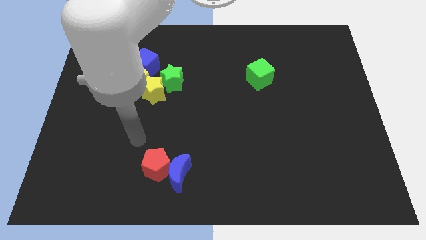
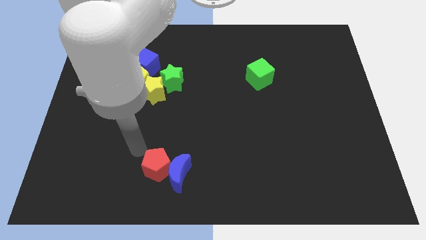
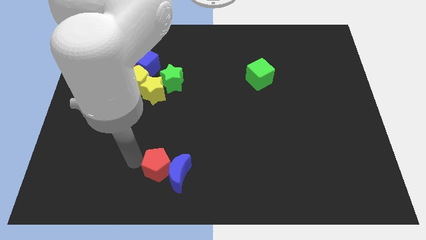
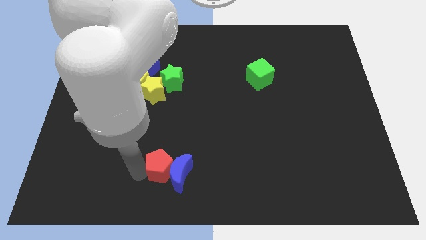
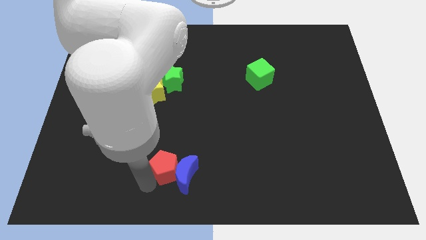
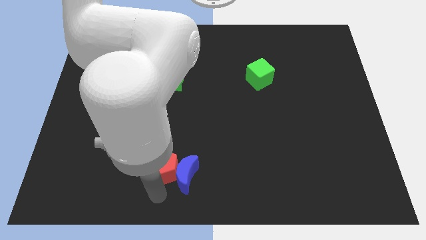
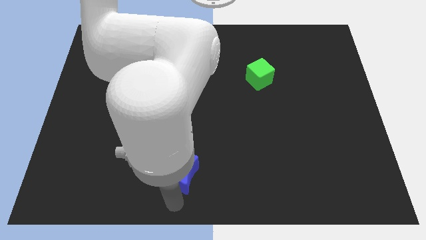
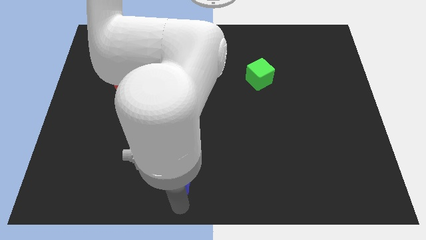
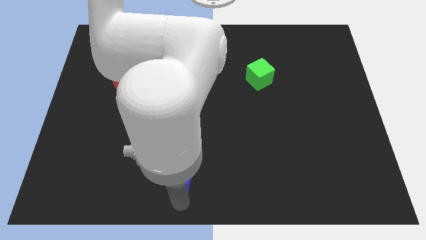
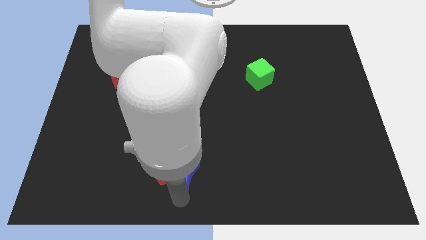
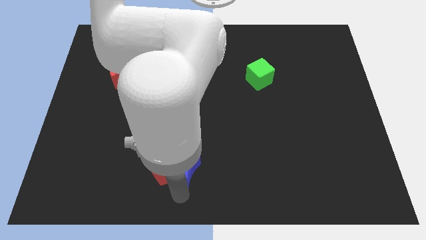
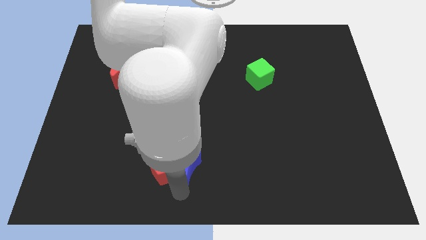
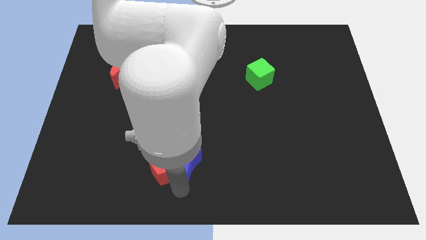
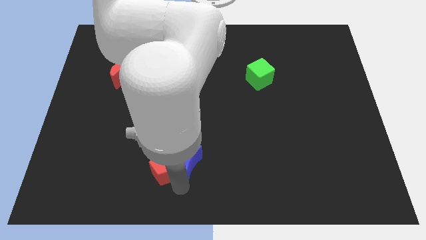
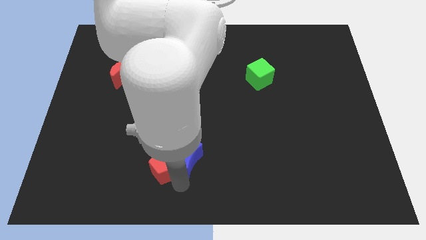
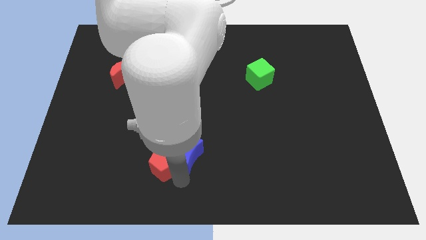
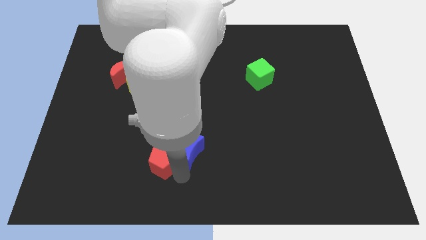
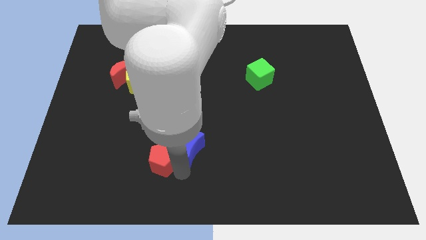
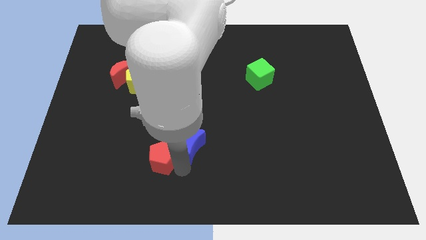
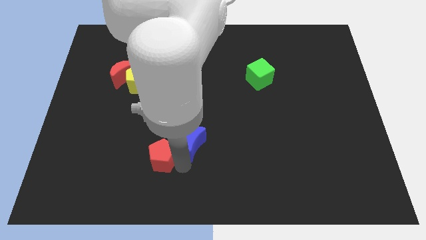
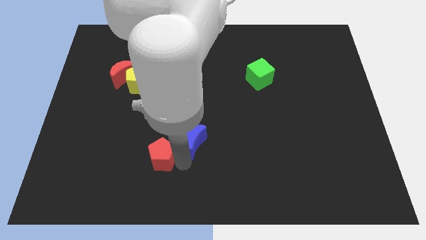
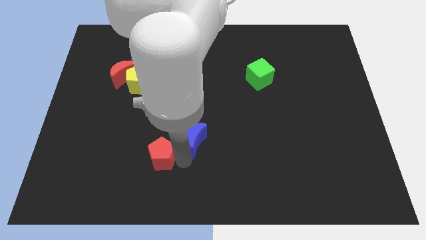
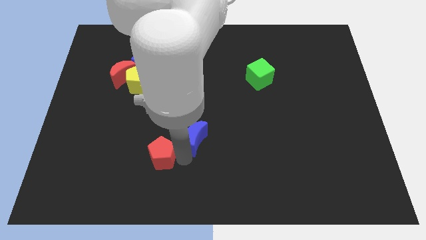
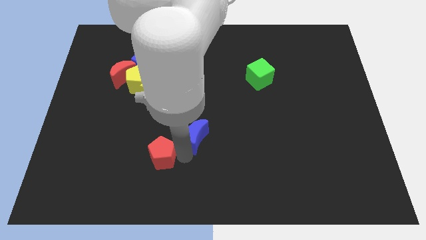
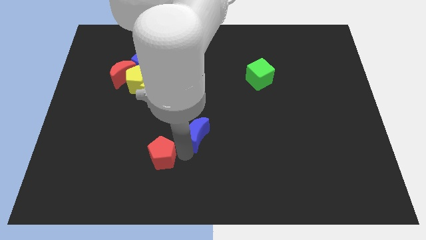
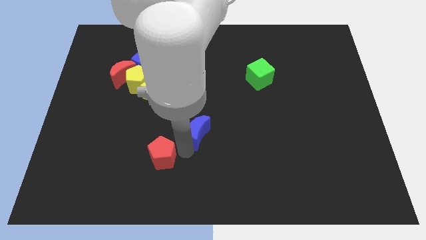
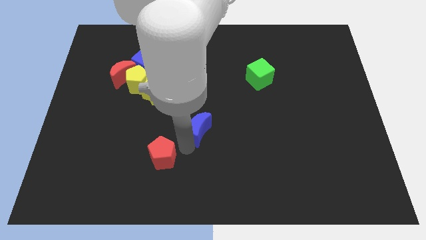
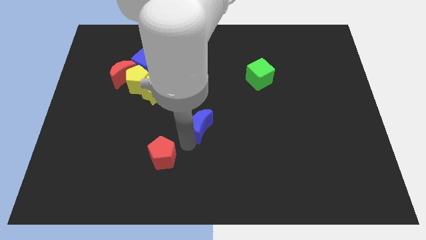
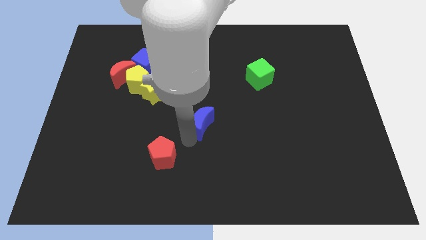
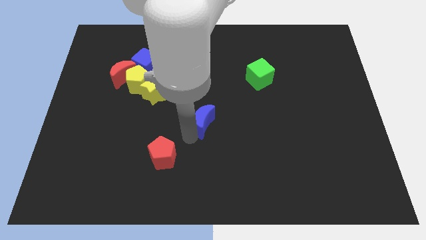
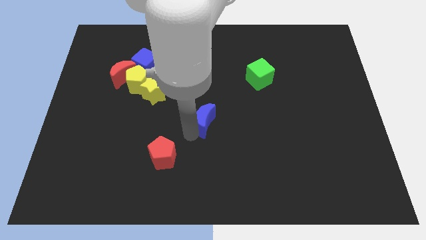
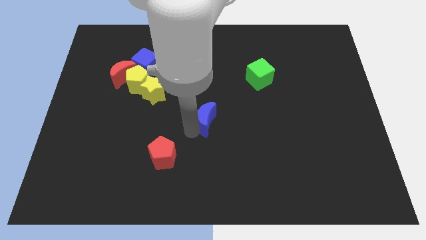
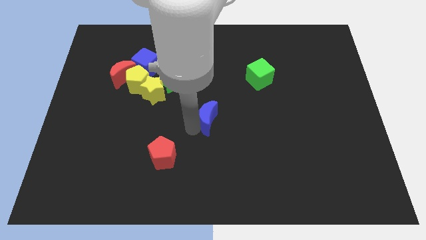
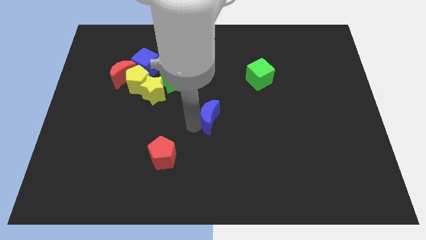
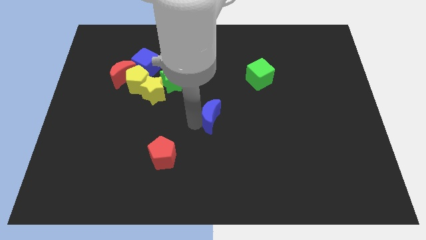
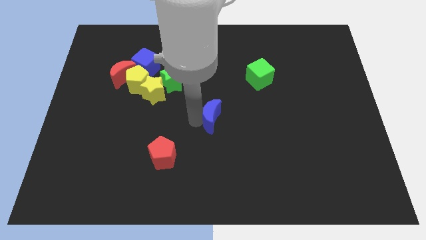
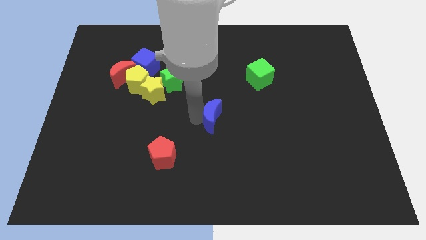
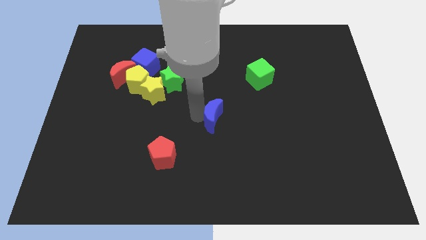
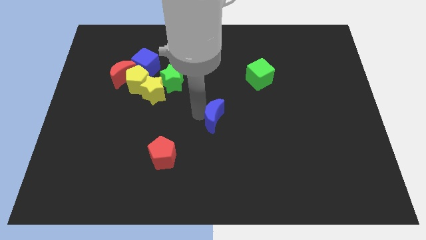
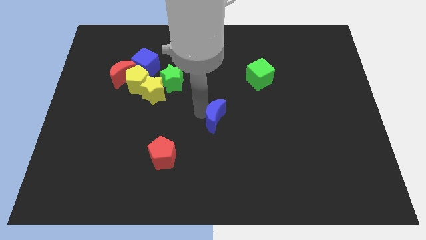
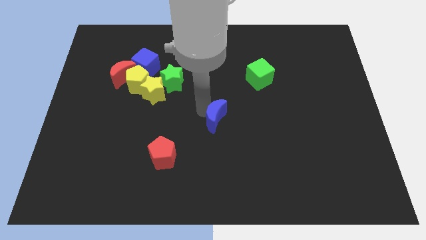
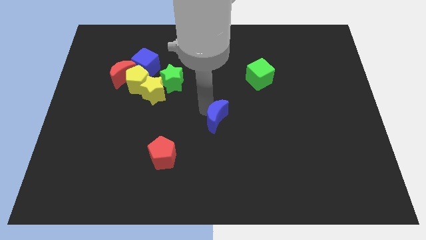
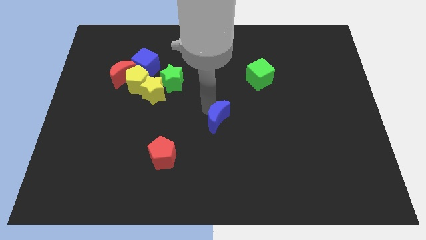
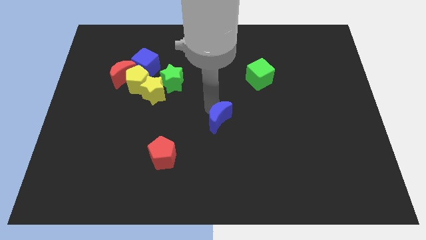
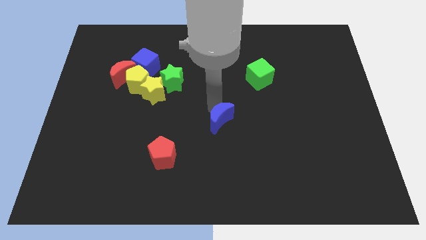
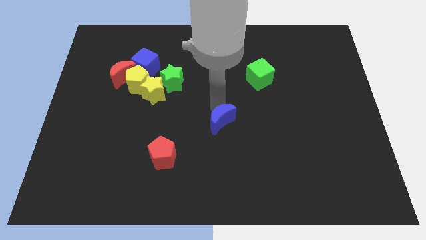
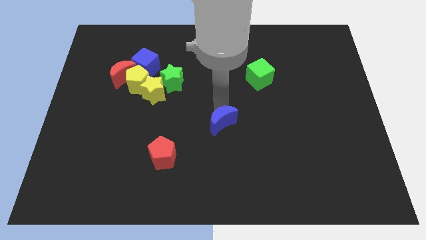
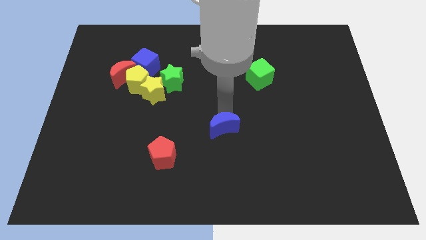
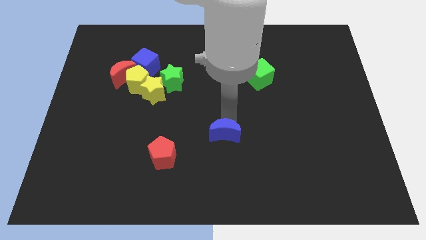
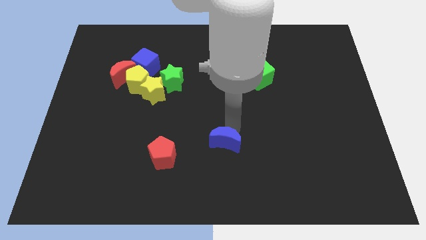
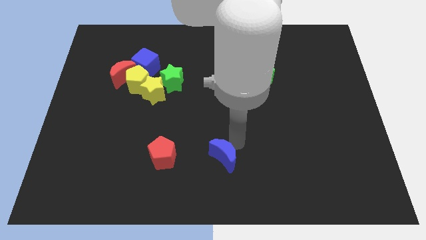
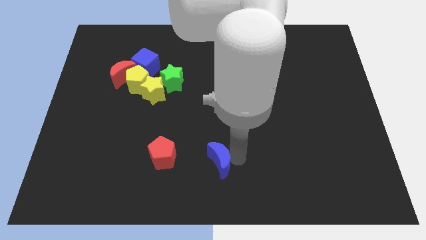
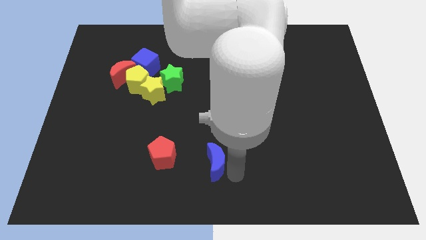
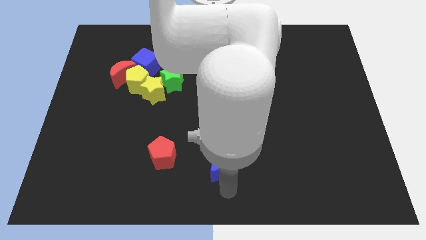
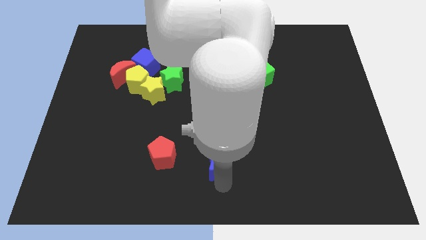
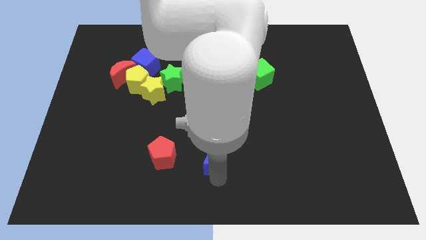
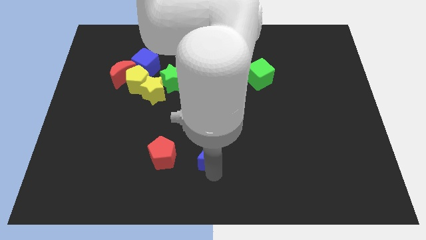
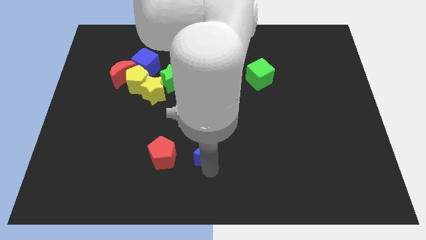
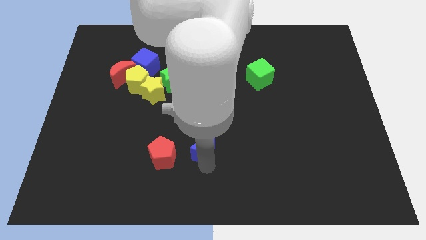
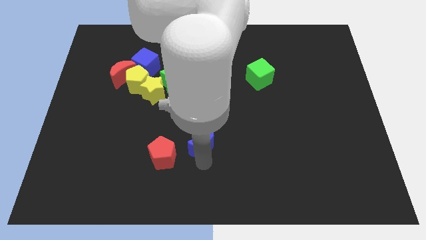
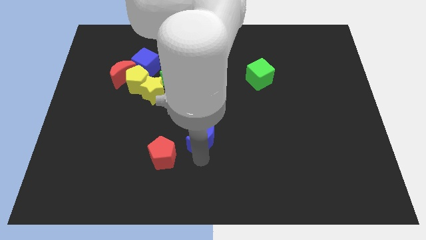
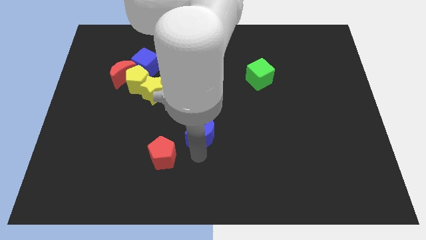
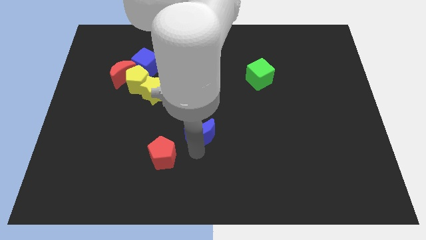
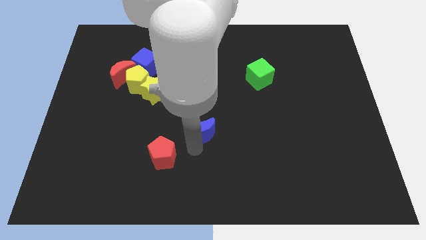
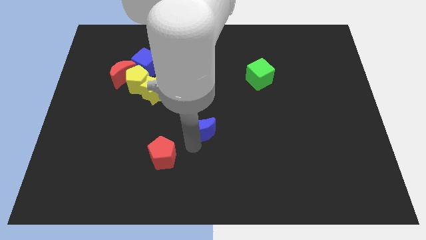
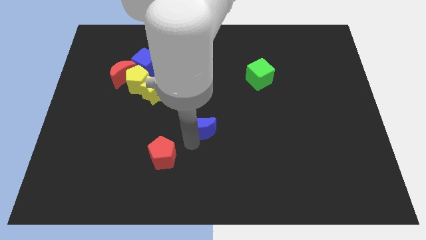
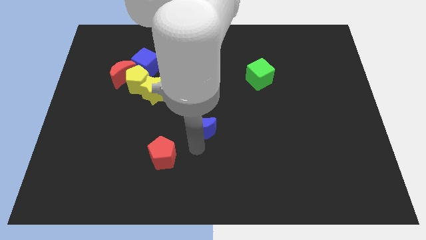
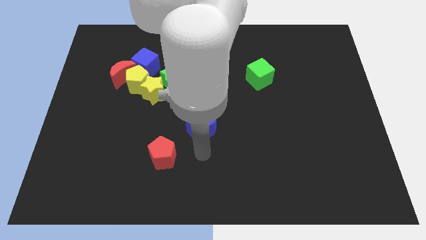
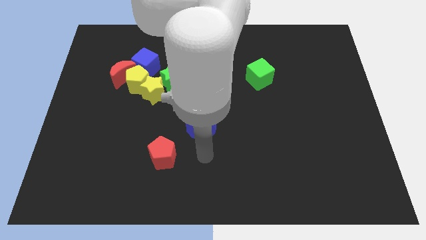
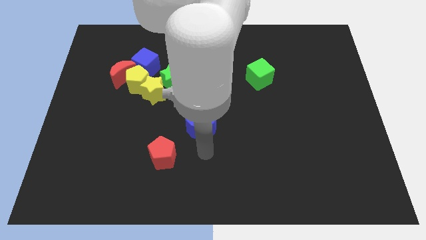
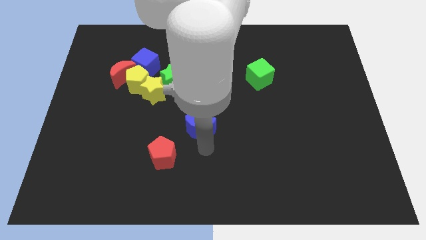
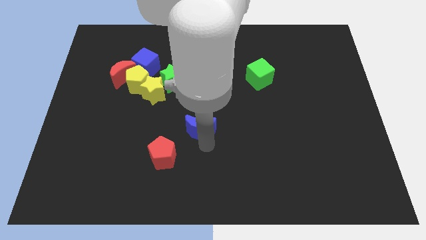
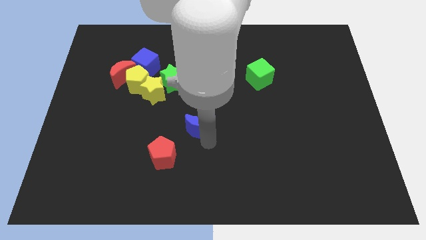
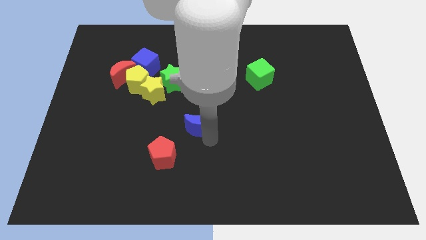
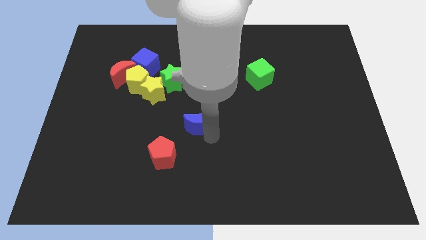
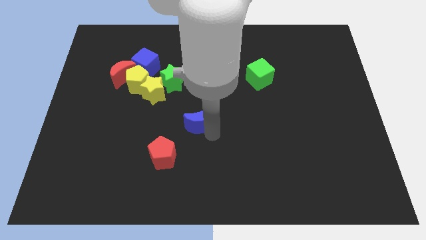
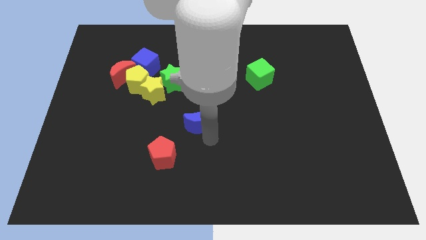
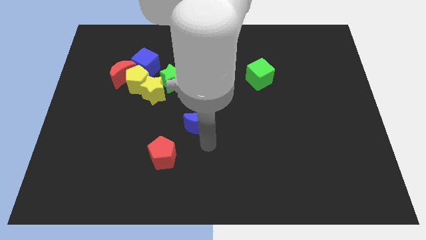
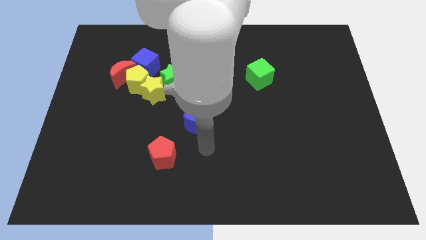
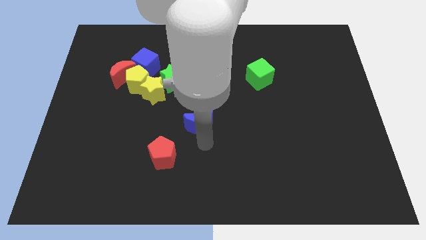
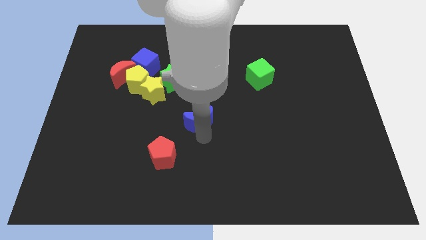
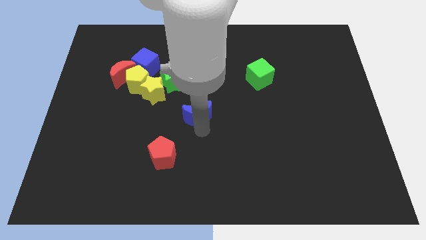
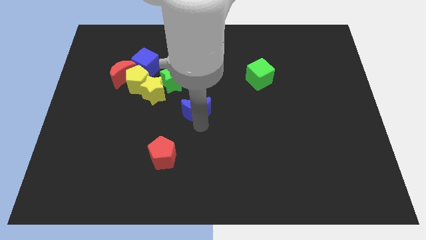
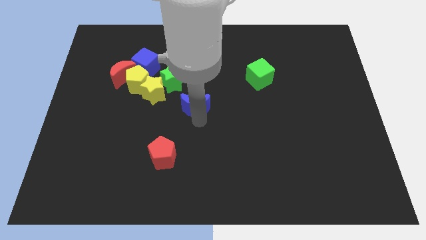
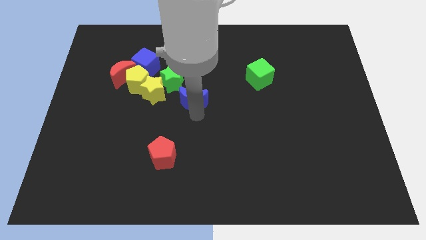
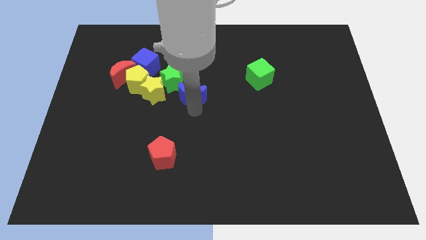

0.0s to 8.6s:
slide the blue moon upwards
